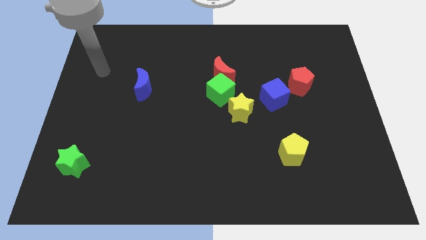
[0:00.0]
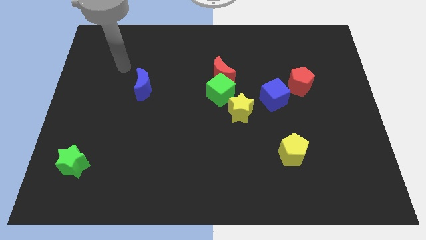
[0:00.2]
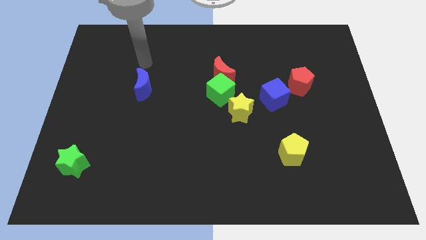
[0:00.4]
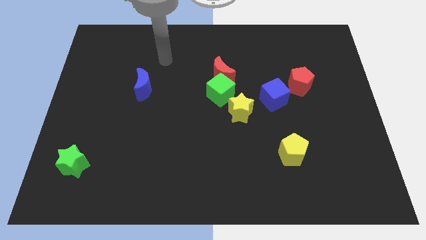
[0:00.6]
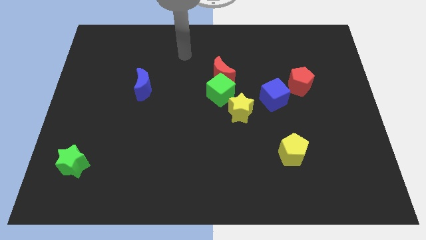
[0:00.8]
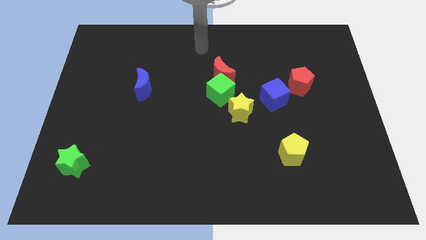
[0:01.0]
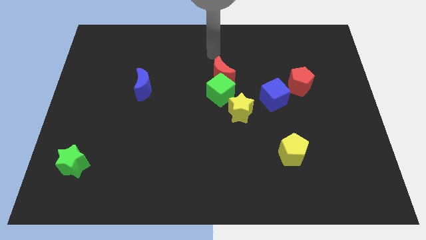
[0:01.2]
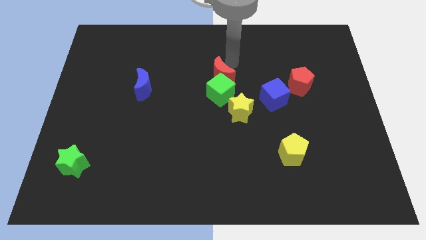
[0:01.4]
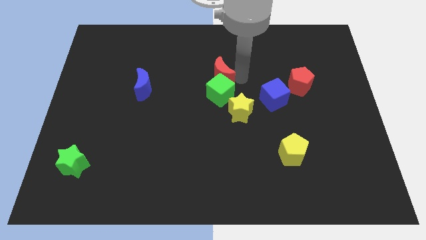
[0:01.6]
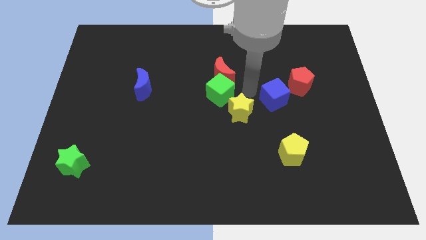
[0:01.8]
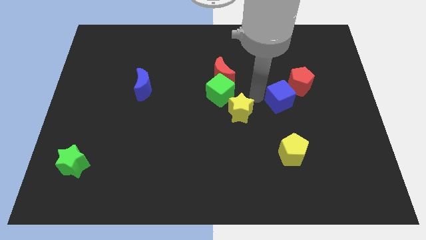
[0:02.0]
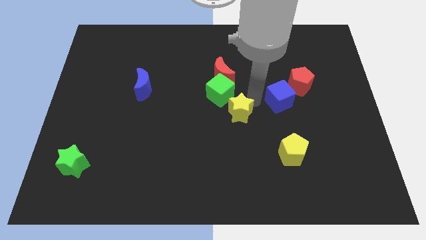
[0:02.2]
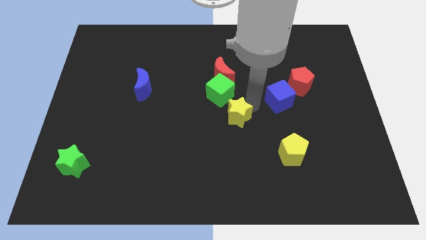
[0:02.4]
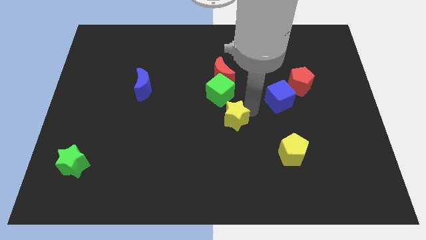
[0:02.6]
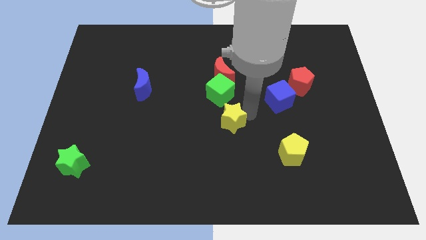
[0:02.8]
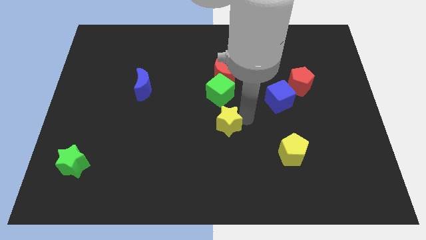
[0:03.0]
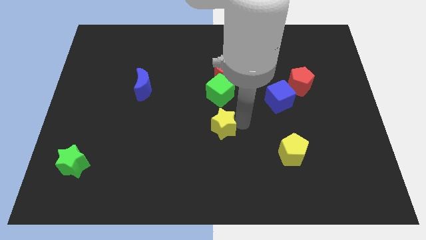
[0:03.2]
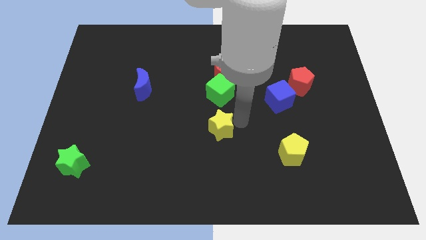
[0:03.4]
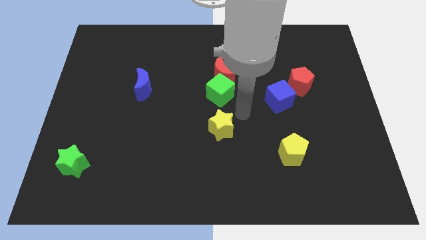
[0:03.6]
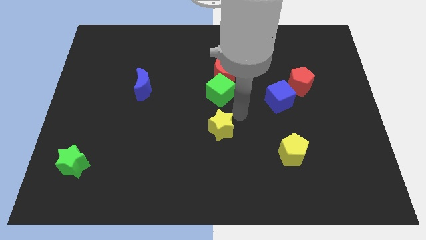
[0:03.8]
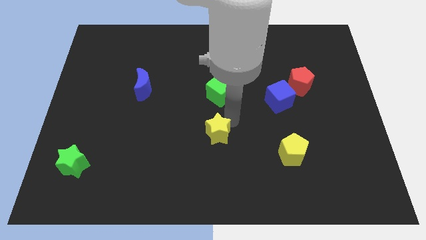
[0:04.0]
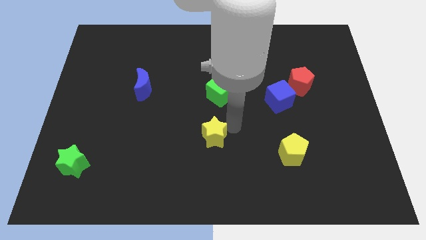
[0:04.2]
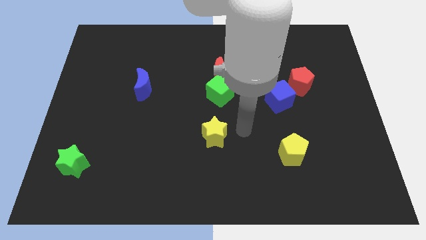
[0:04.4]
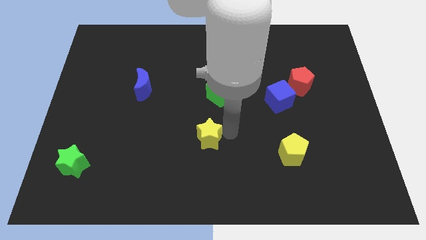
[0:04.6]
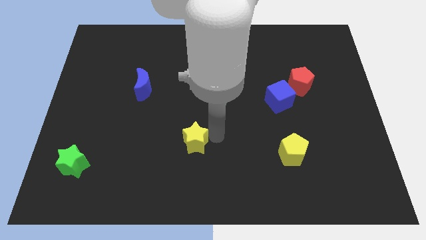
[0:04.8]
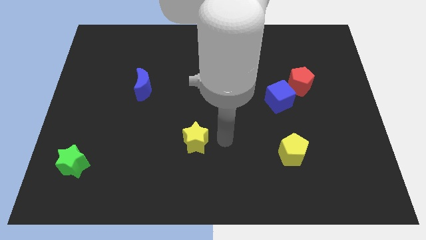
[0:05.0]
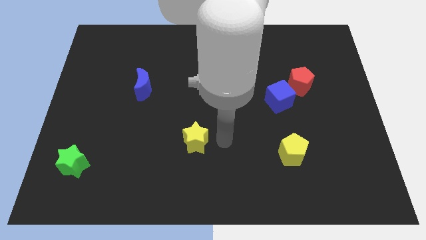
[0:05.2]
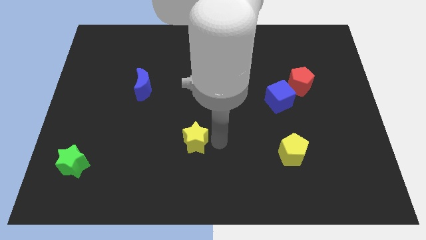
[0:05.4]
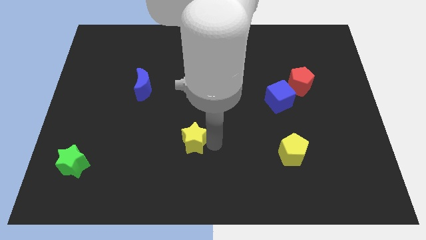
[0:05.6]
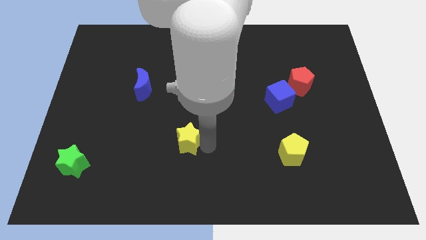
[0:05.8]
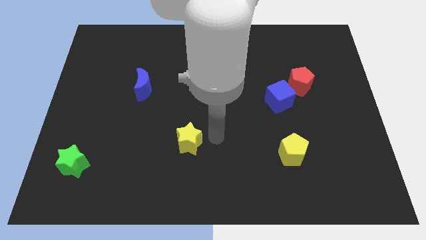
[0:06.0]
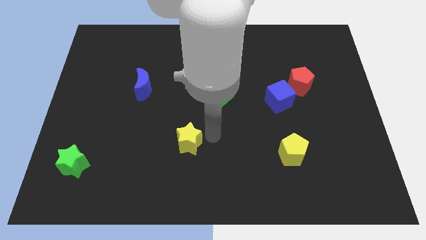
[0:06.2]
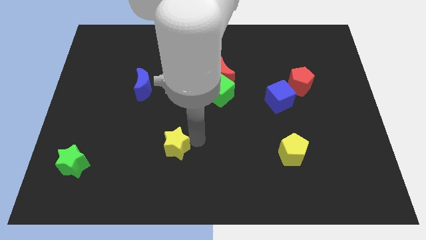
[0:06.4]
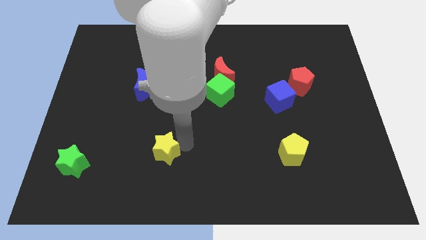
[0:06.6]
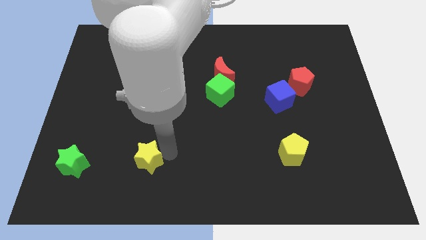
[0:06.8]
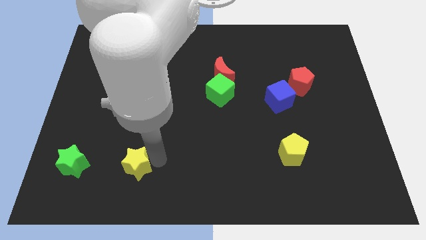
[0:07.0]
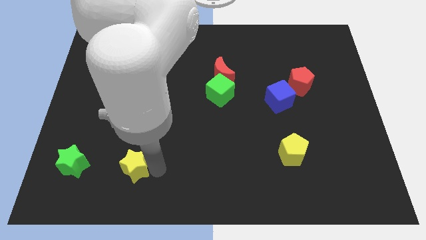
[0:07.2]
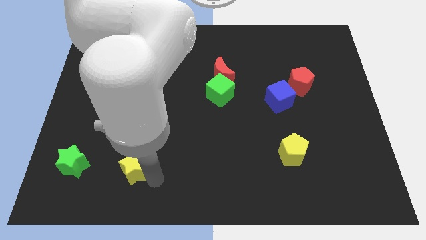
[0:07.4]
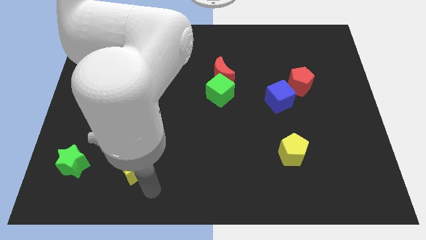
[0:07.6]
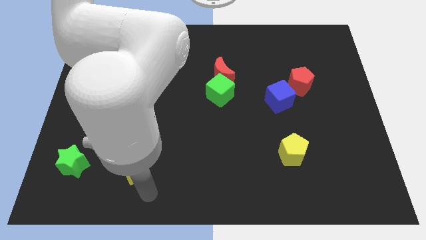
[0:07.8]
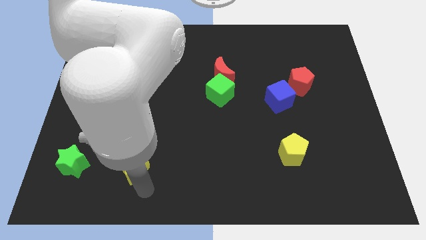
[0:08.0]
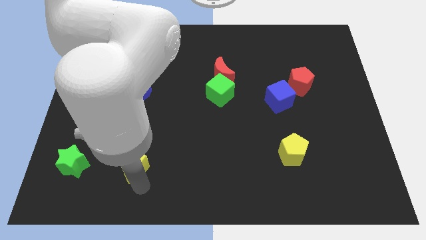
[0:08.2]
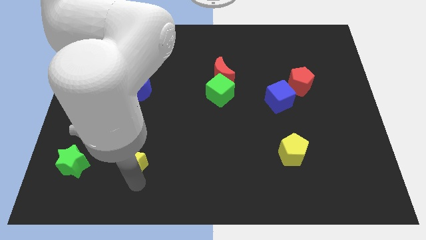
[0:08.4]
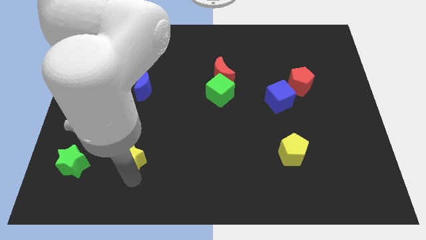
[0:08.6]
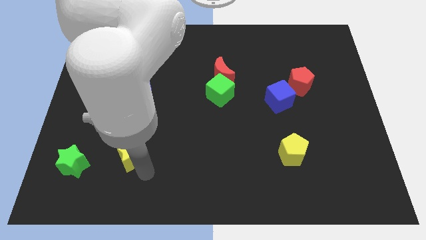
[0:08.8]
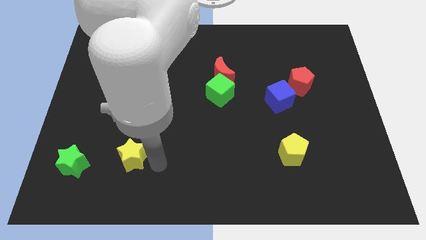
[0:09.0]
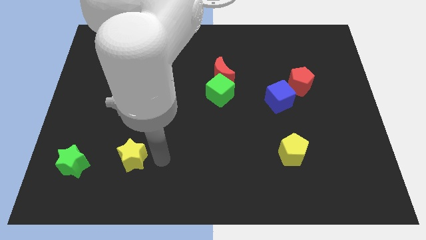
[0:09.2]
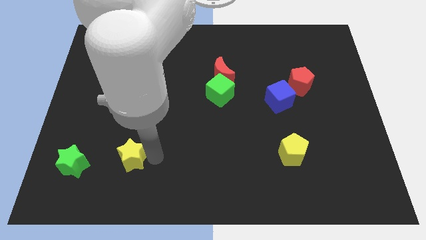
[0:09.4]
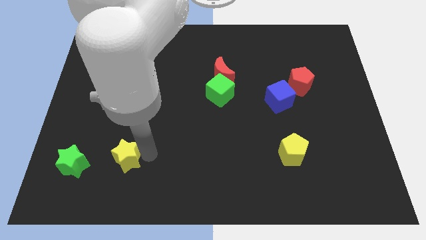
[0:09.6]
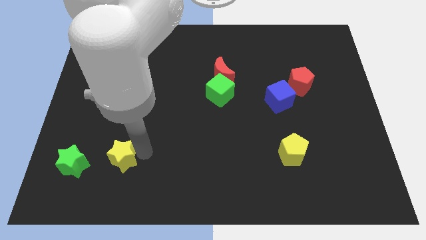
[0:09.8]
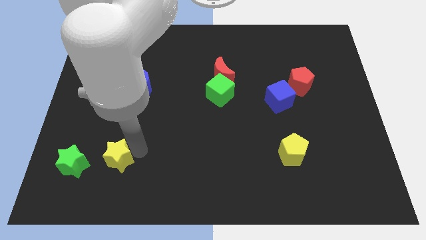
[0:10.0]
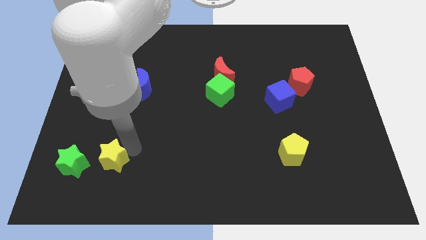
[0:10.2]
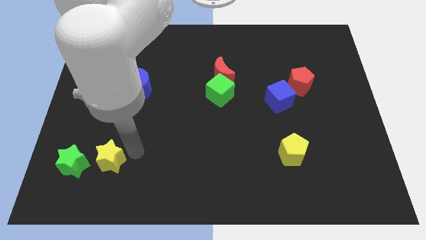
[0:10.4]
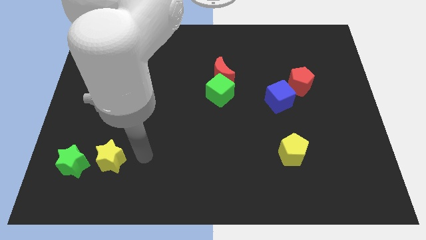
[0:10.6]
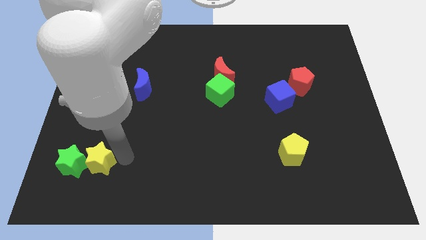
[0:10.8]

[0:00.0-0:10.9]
put the yellow star close to the green star

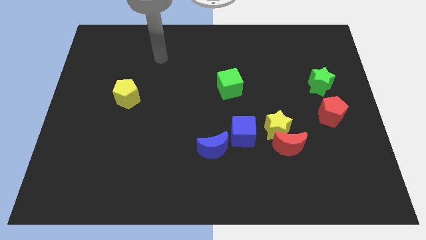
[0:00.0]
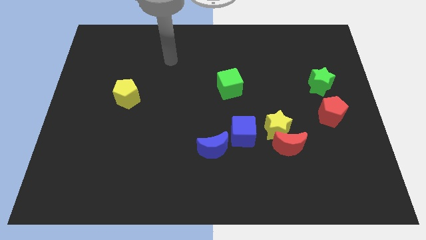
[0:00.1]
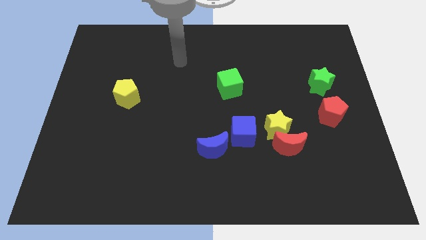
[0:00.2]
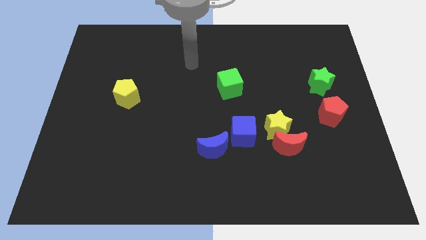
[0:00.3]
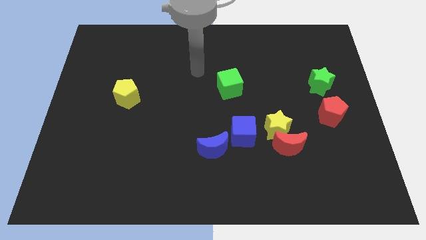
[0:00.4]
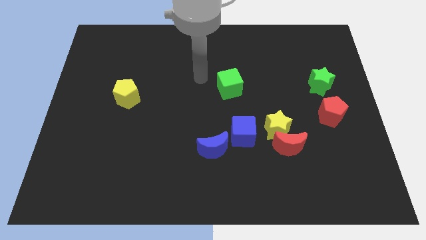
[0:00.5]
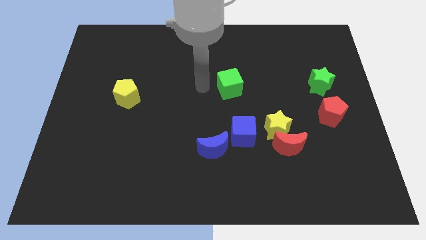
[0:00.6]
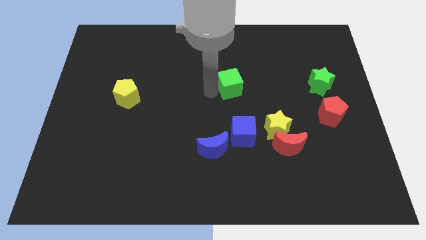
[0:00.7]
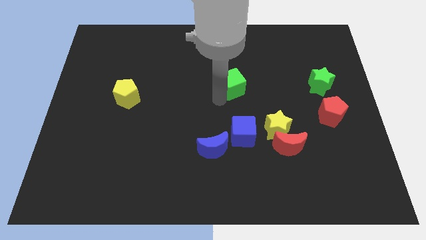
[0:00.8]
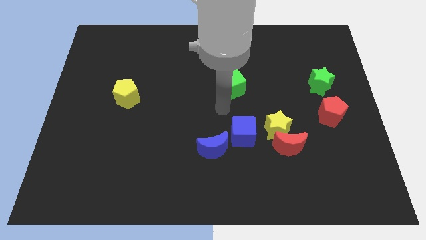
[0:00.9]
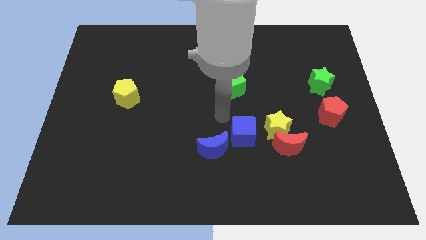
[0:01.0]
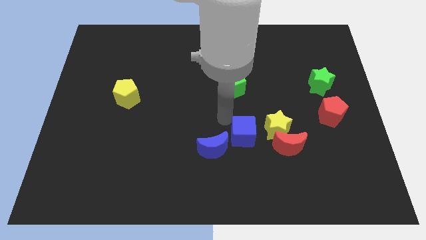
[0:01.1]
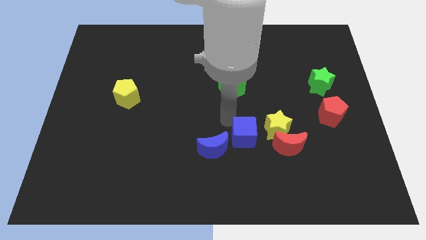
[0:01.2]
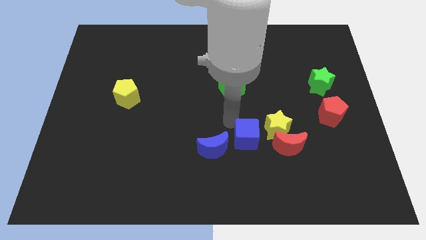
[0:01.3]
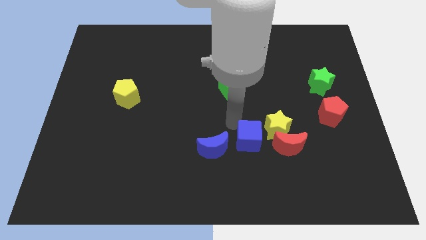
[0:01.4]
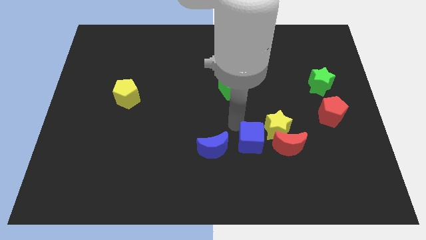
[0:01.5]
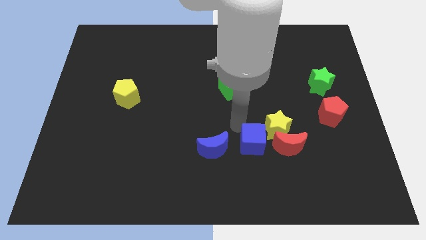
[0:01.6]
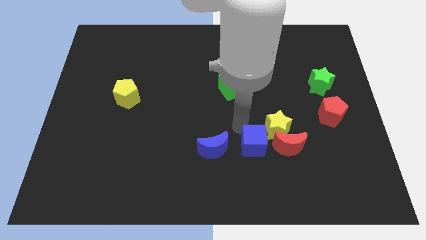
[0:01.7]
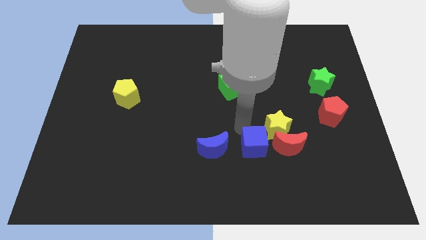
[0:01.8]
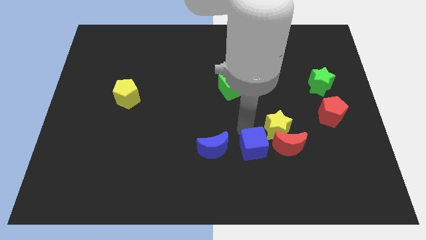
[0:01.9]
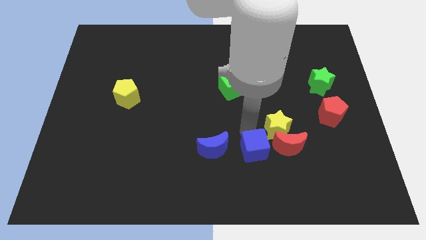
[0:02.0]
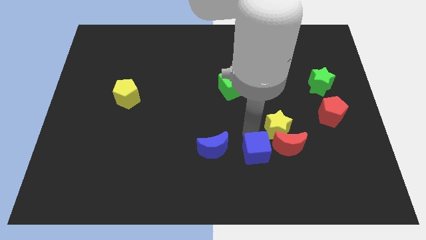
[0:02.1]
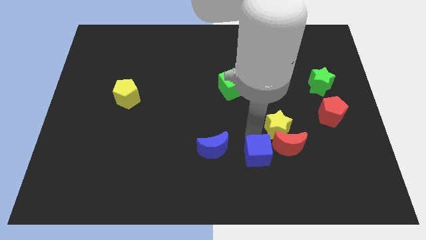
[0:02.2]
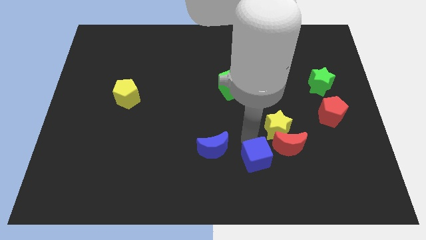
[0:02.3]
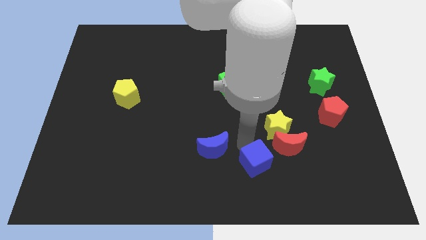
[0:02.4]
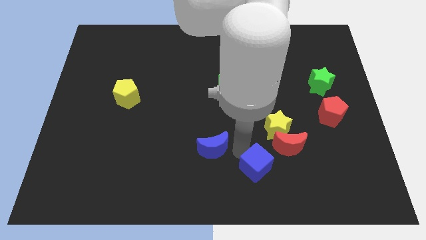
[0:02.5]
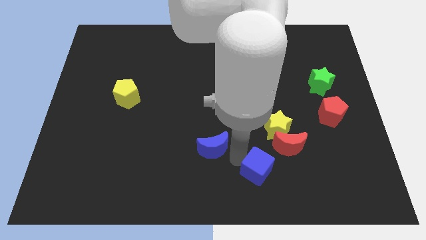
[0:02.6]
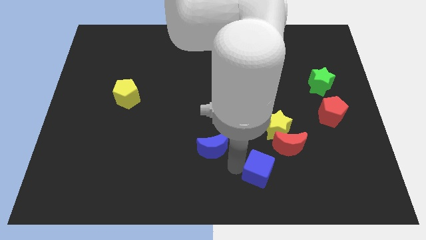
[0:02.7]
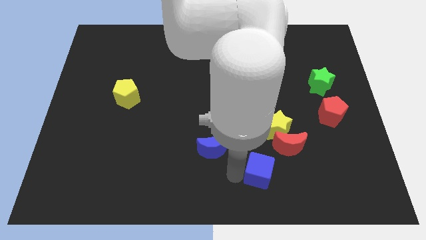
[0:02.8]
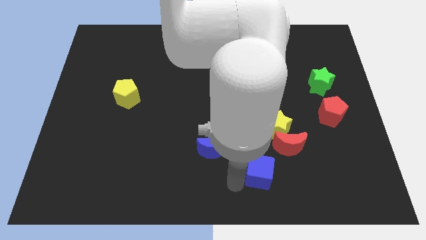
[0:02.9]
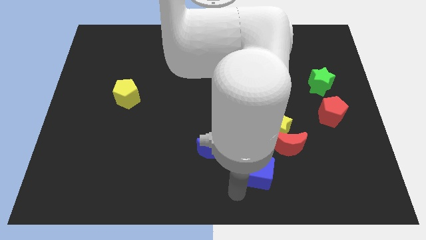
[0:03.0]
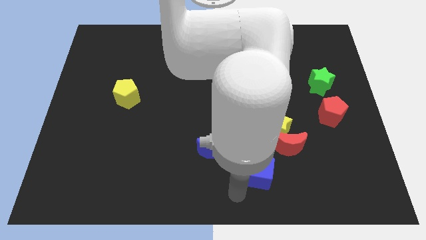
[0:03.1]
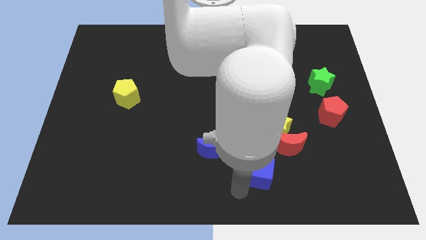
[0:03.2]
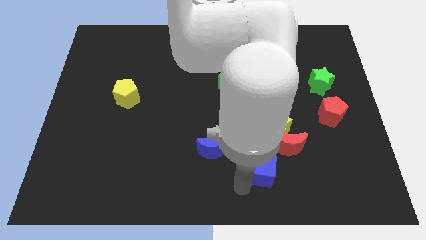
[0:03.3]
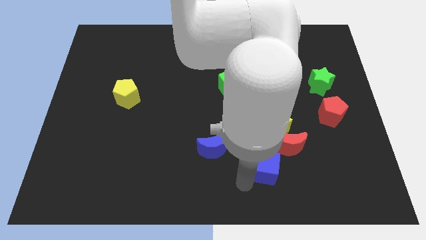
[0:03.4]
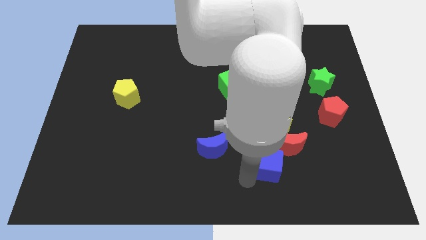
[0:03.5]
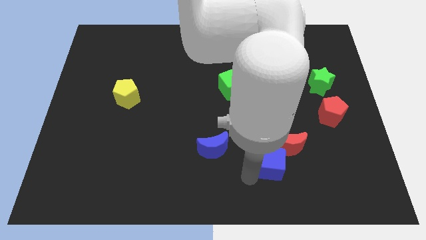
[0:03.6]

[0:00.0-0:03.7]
push the blue cube close to the red moon
